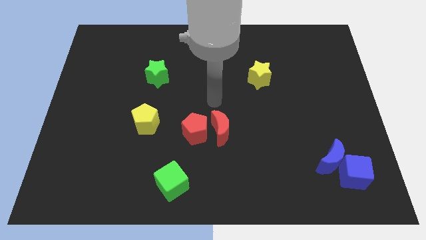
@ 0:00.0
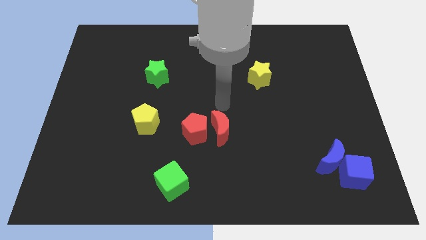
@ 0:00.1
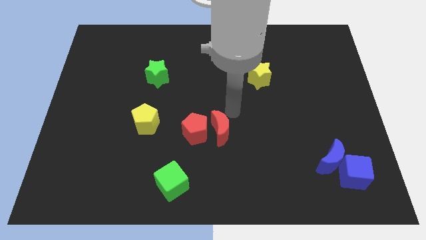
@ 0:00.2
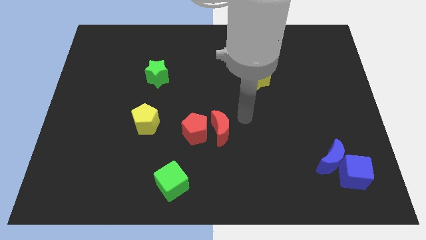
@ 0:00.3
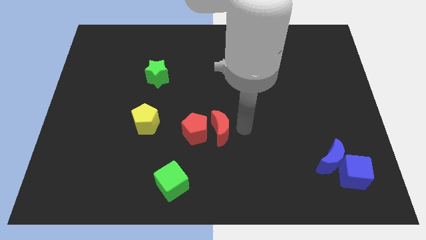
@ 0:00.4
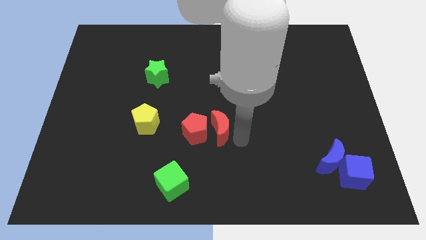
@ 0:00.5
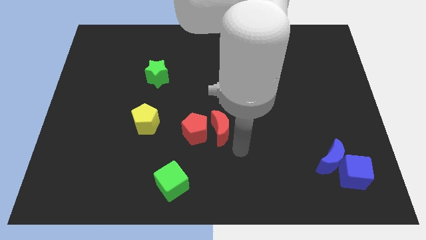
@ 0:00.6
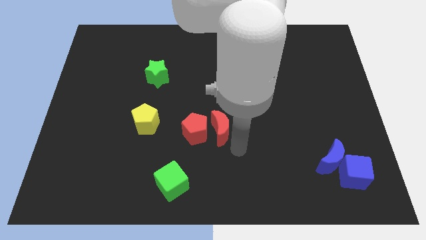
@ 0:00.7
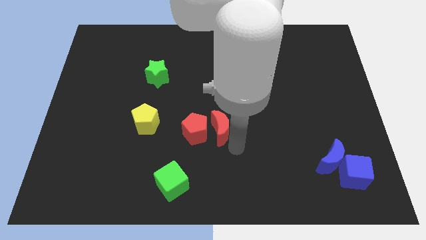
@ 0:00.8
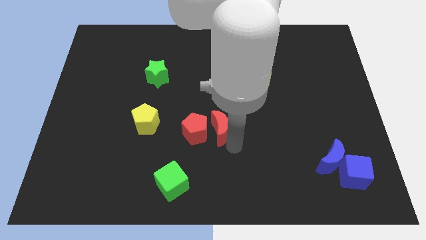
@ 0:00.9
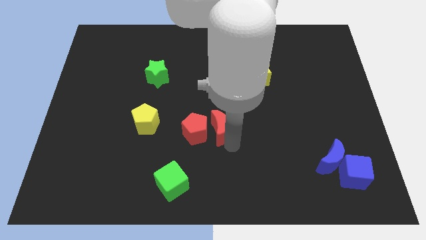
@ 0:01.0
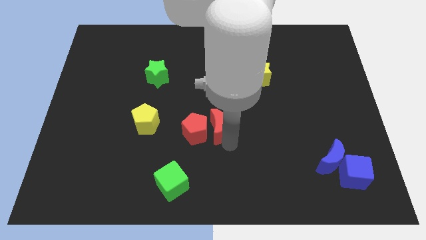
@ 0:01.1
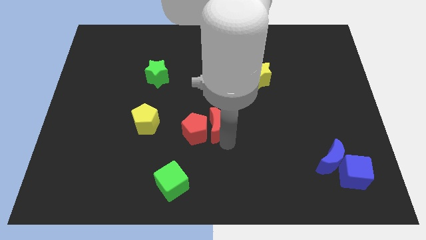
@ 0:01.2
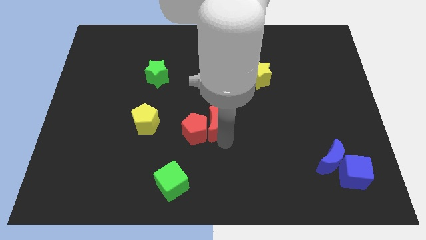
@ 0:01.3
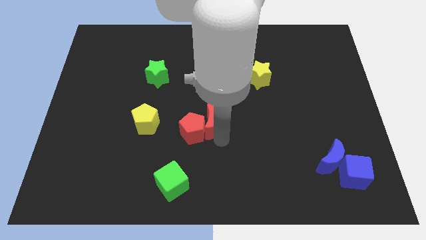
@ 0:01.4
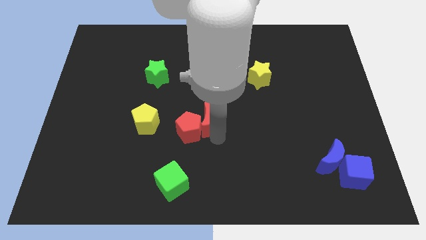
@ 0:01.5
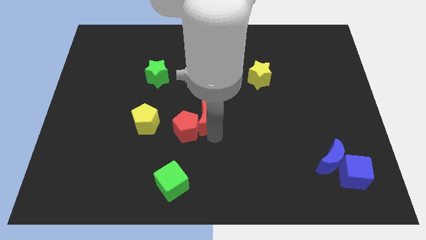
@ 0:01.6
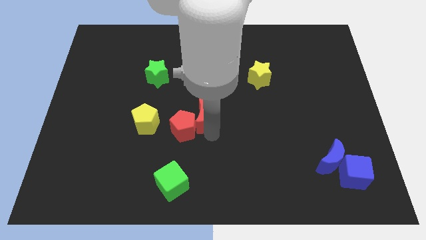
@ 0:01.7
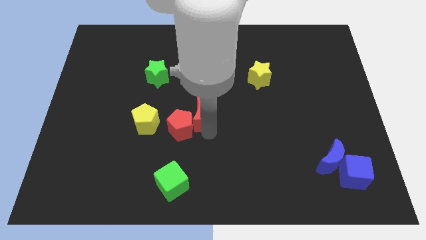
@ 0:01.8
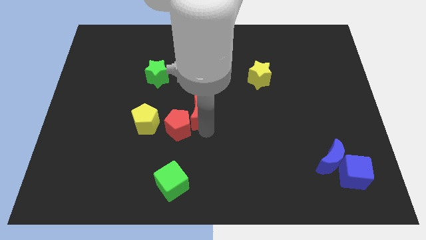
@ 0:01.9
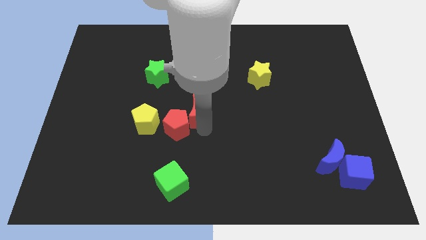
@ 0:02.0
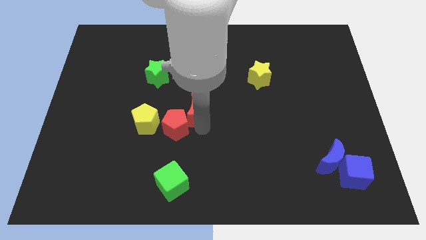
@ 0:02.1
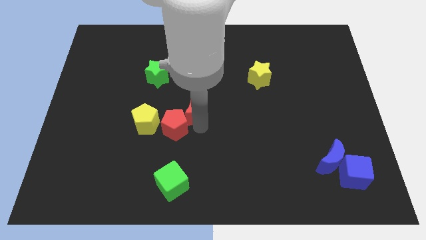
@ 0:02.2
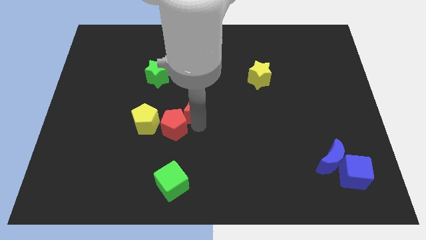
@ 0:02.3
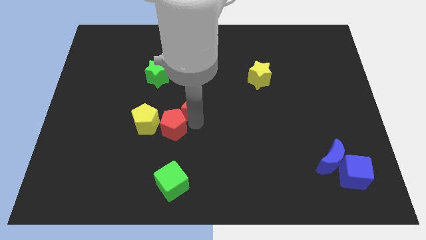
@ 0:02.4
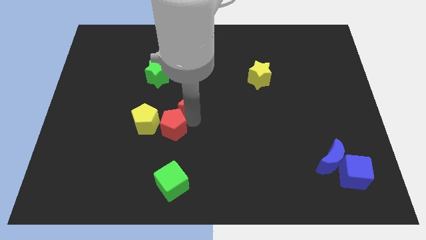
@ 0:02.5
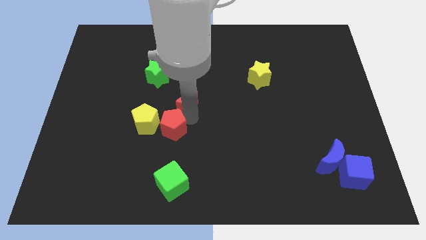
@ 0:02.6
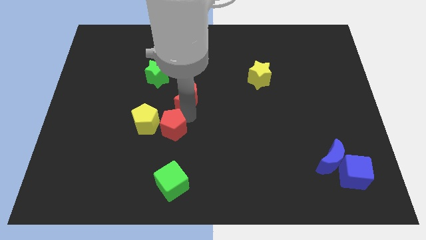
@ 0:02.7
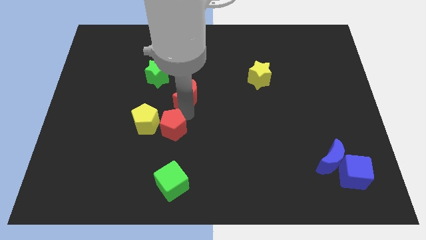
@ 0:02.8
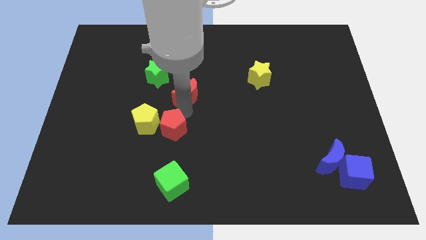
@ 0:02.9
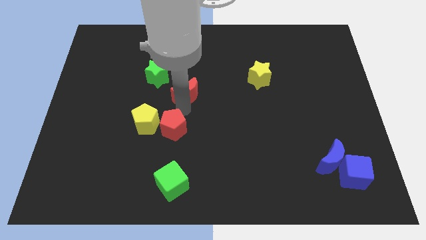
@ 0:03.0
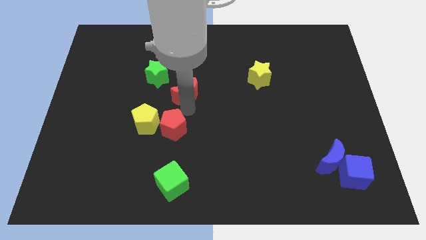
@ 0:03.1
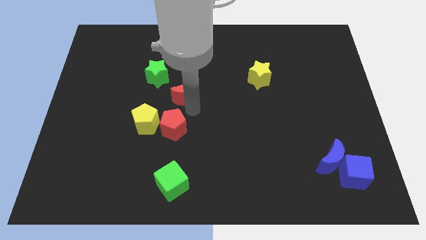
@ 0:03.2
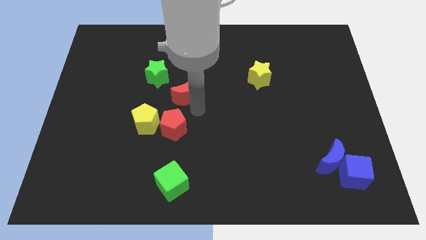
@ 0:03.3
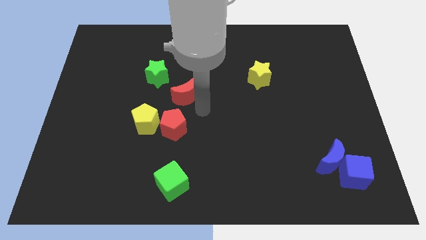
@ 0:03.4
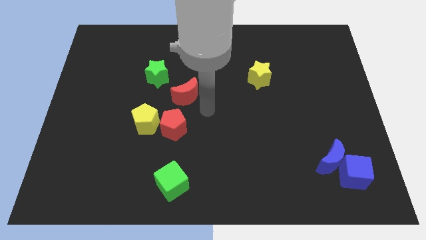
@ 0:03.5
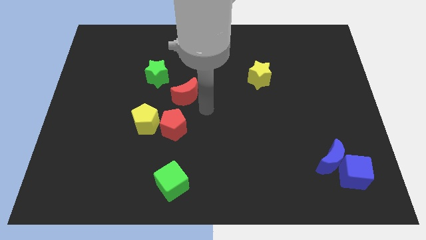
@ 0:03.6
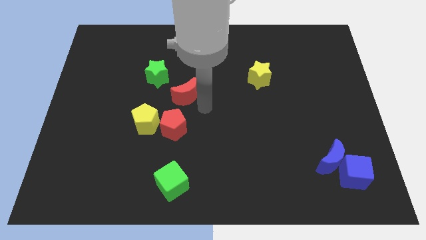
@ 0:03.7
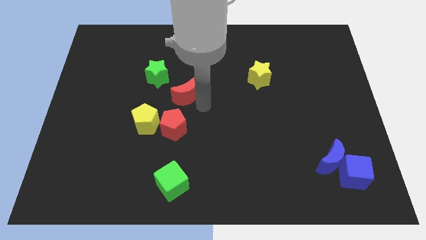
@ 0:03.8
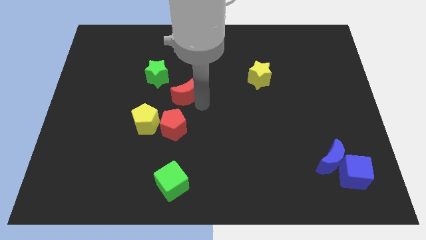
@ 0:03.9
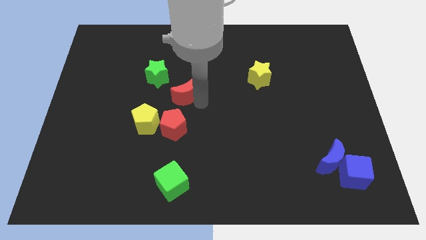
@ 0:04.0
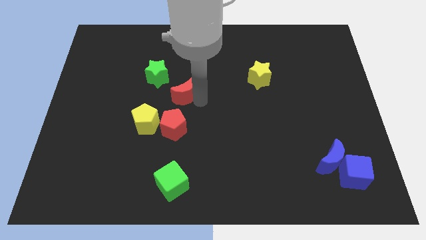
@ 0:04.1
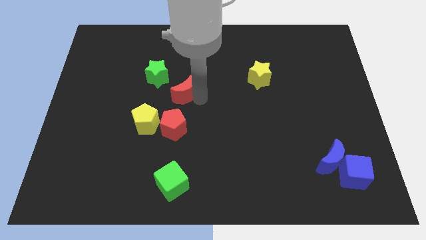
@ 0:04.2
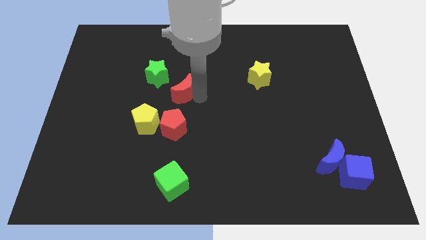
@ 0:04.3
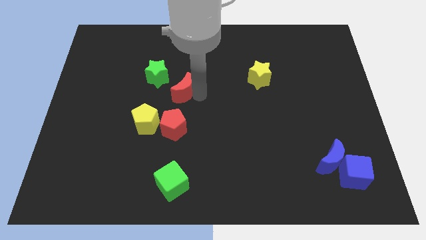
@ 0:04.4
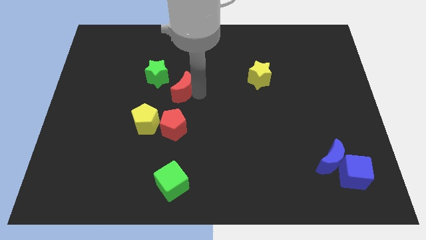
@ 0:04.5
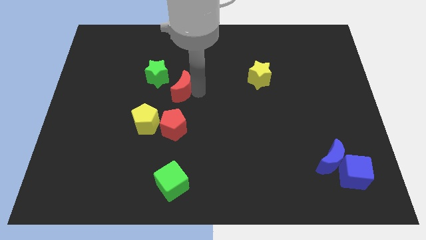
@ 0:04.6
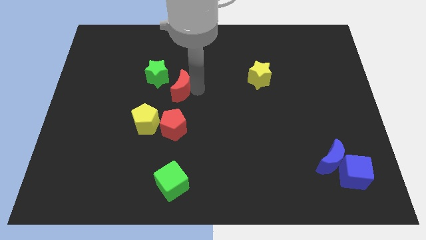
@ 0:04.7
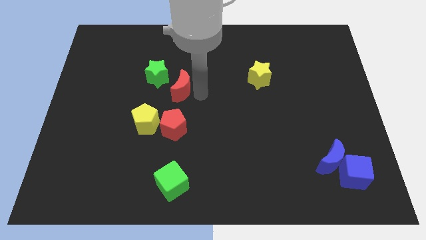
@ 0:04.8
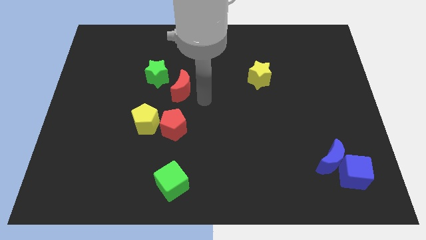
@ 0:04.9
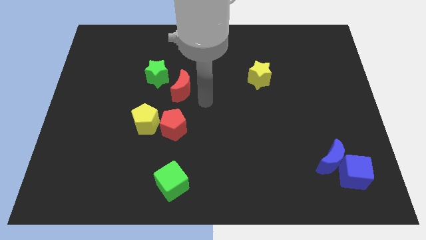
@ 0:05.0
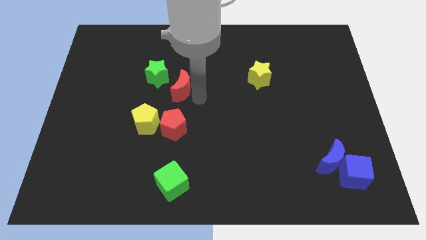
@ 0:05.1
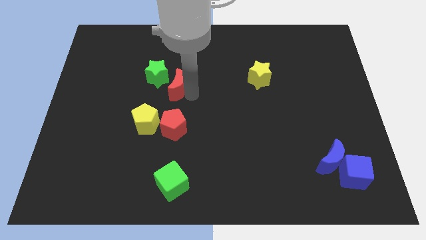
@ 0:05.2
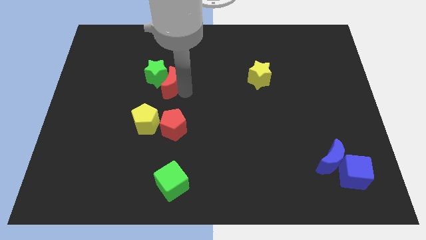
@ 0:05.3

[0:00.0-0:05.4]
move the red moon next to the green star

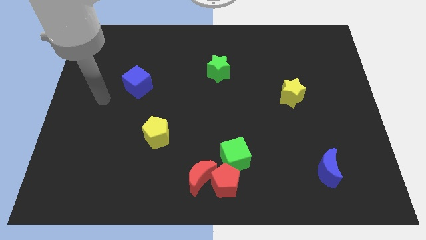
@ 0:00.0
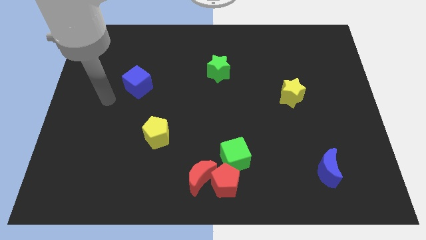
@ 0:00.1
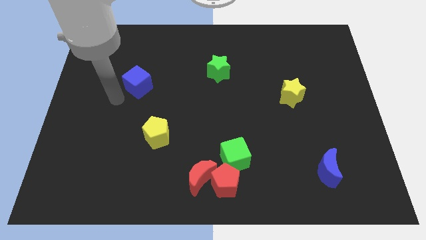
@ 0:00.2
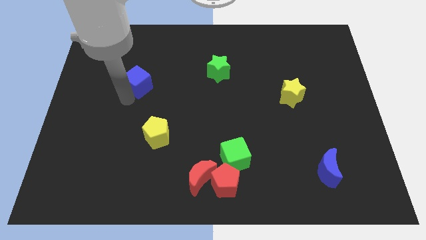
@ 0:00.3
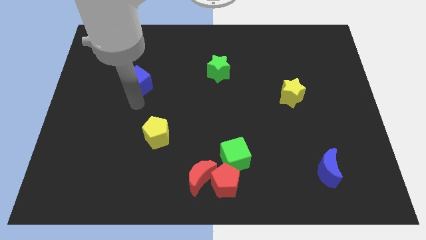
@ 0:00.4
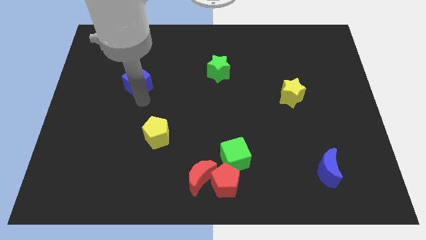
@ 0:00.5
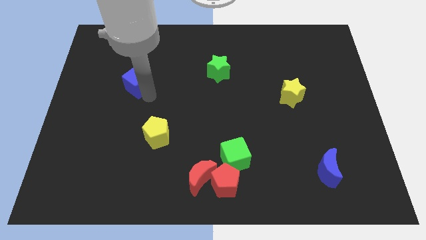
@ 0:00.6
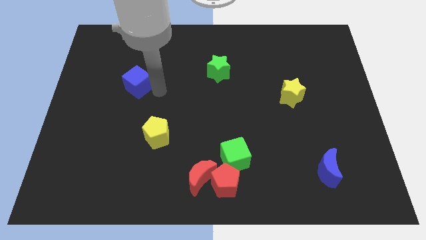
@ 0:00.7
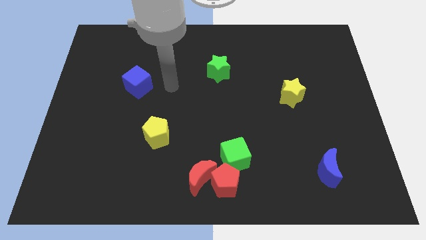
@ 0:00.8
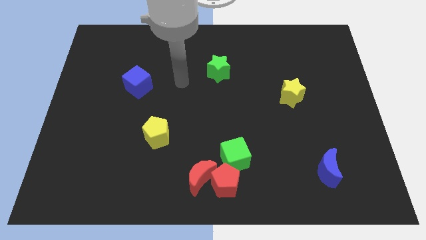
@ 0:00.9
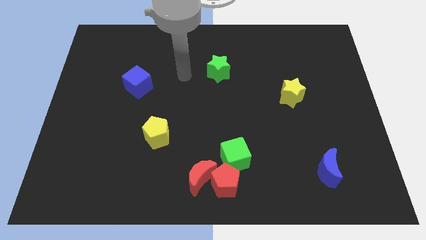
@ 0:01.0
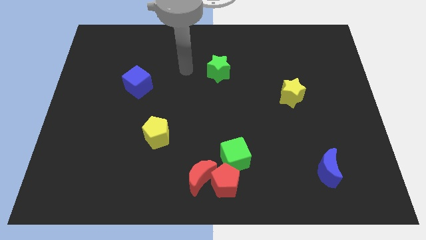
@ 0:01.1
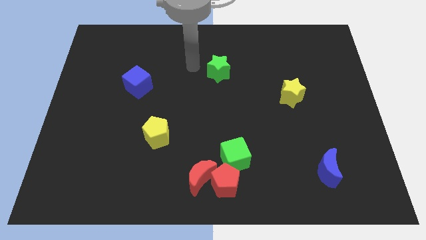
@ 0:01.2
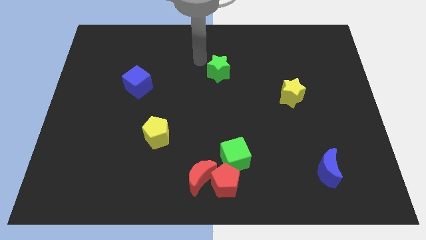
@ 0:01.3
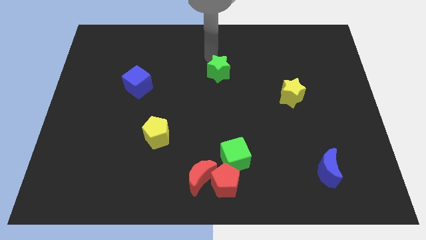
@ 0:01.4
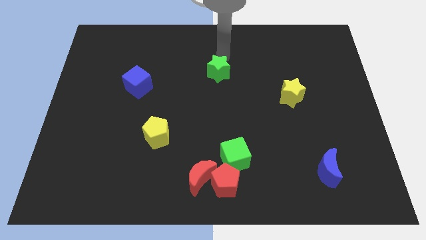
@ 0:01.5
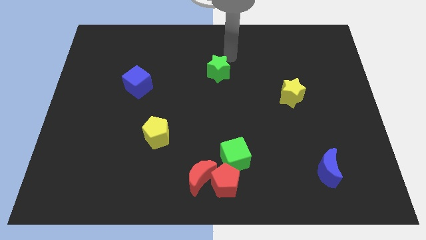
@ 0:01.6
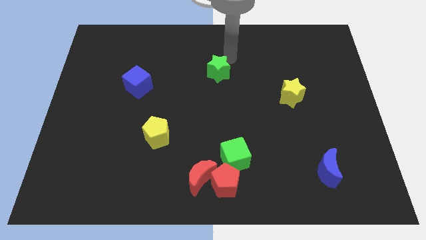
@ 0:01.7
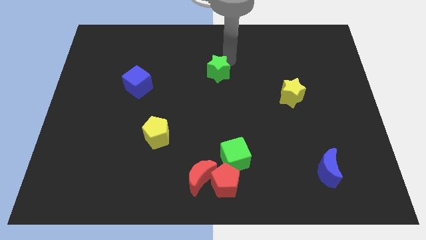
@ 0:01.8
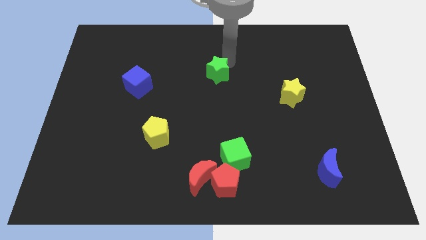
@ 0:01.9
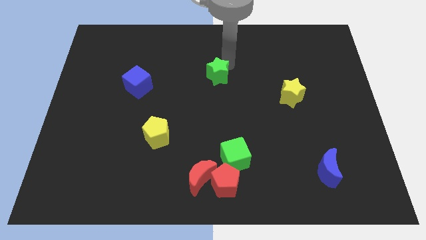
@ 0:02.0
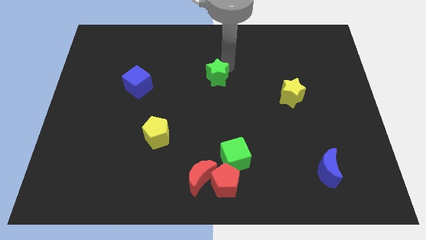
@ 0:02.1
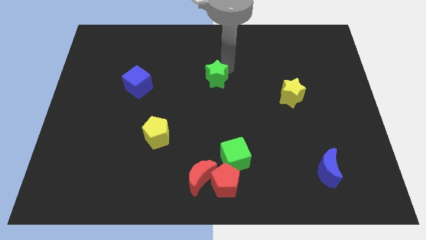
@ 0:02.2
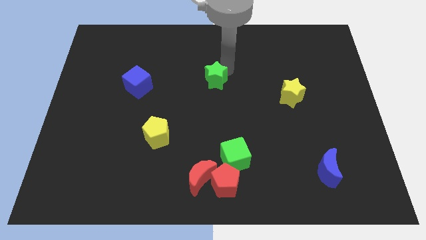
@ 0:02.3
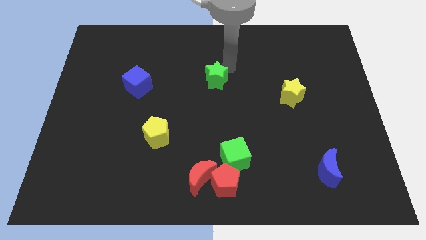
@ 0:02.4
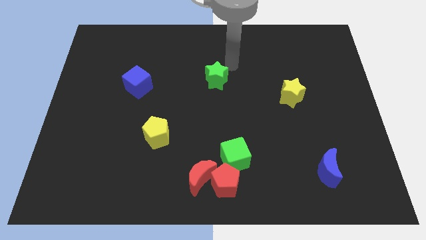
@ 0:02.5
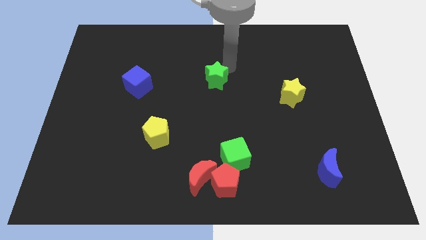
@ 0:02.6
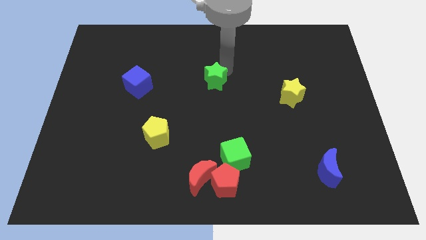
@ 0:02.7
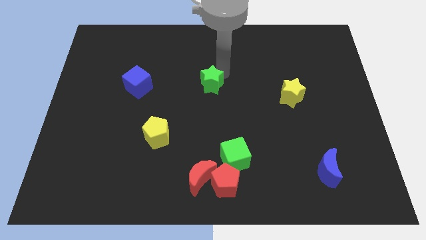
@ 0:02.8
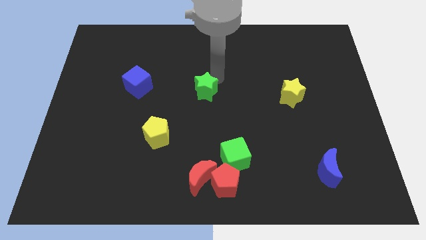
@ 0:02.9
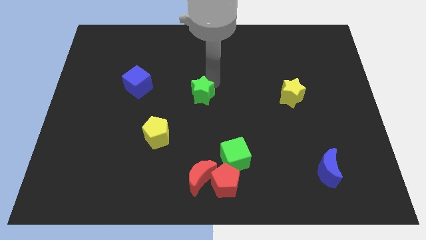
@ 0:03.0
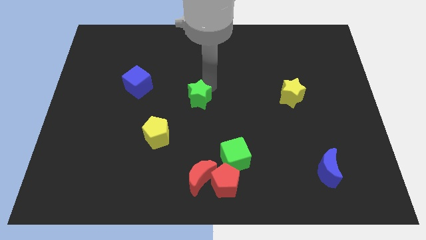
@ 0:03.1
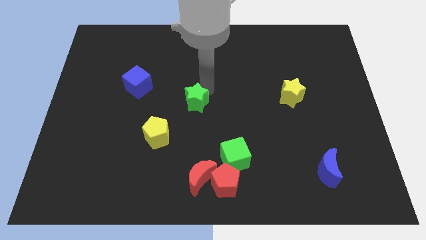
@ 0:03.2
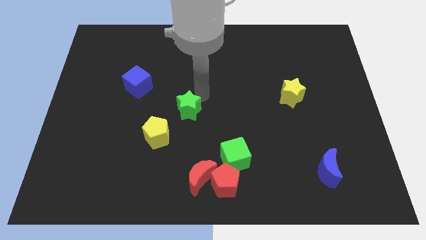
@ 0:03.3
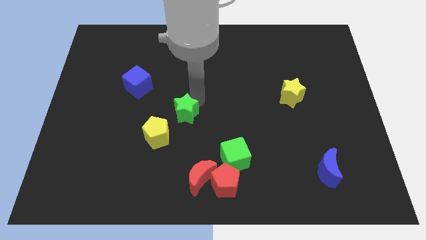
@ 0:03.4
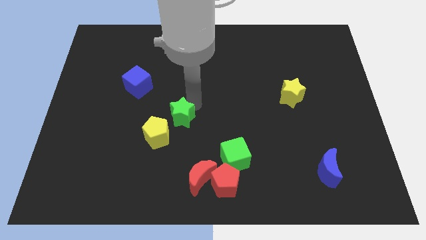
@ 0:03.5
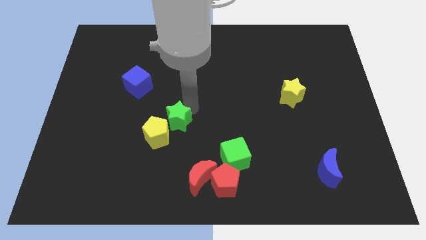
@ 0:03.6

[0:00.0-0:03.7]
move the green star towards the yellow pentagon
